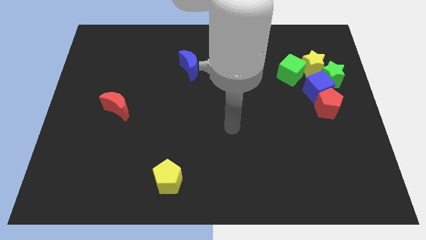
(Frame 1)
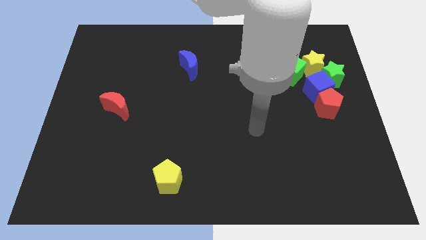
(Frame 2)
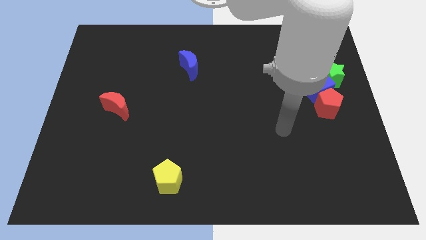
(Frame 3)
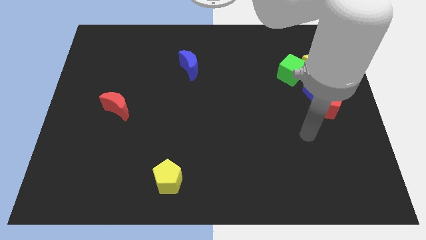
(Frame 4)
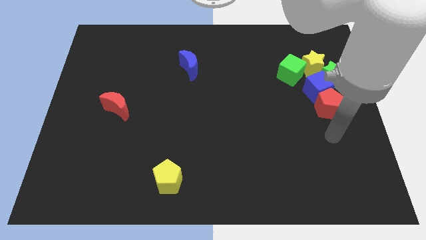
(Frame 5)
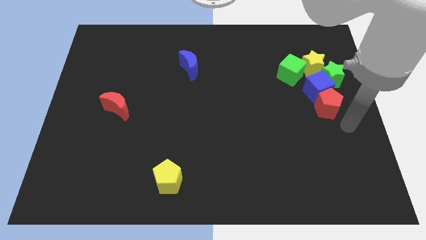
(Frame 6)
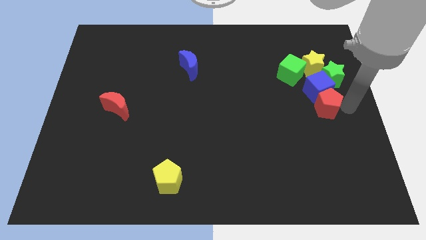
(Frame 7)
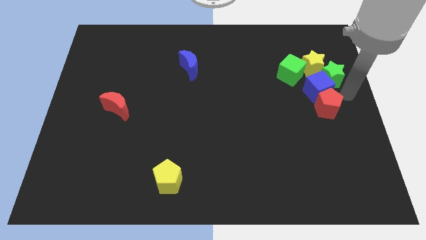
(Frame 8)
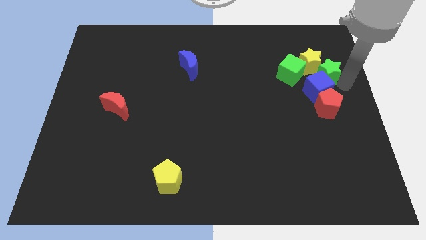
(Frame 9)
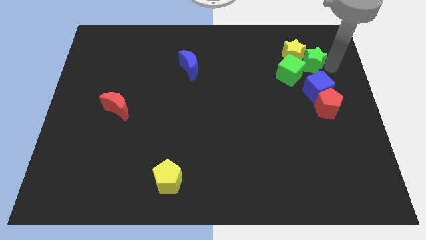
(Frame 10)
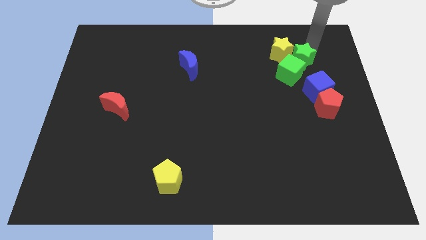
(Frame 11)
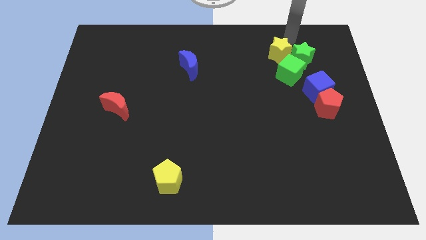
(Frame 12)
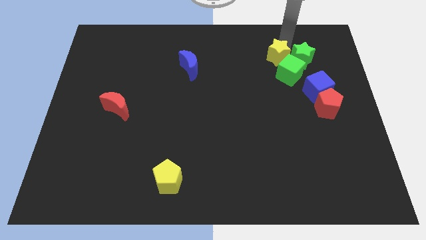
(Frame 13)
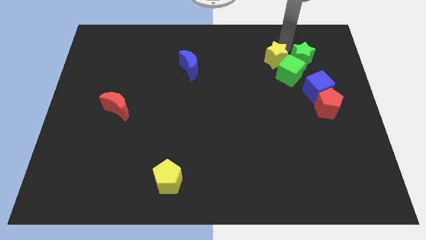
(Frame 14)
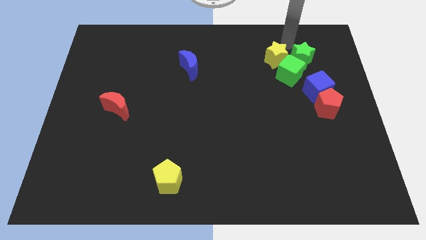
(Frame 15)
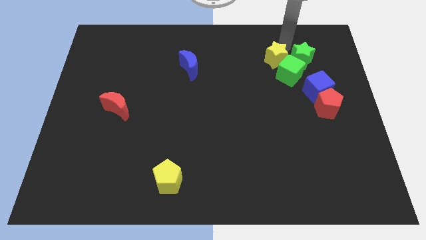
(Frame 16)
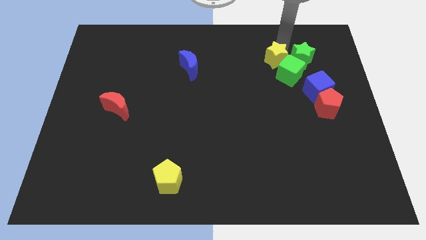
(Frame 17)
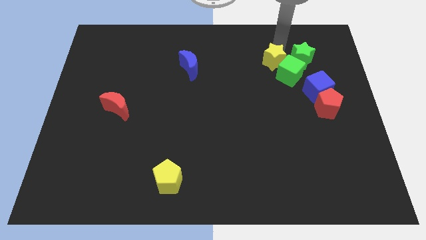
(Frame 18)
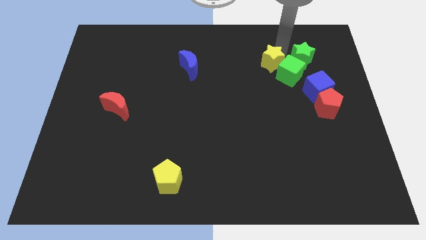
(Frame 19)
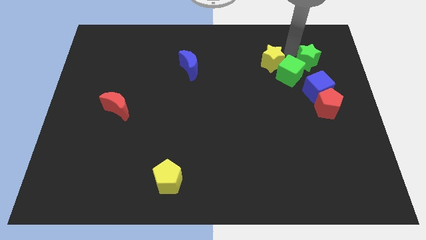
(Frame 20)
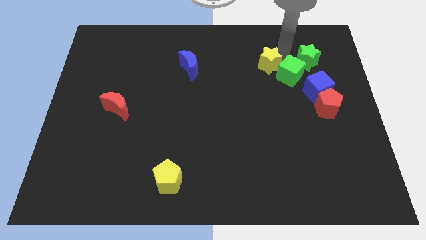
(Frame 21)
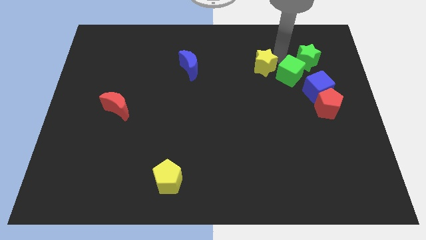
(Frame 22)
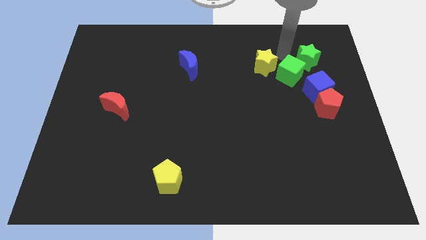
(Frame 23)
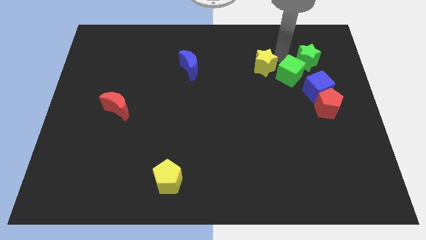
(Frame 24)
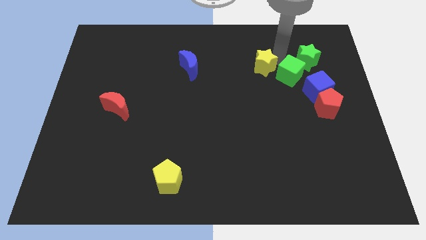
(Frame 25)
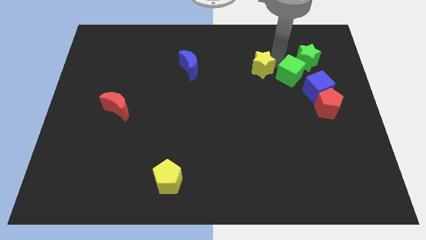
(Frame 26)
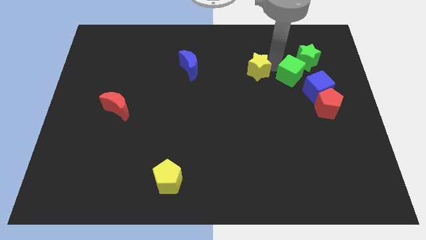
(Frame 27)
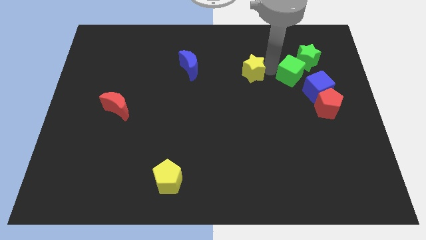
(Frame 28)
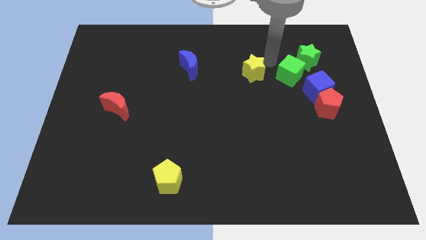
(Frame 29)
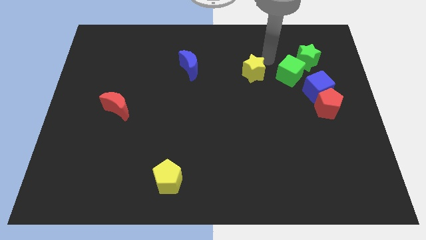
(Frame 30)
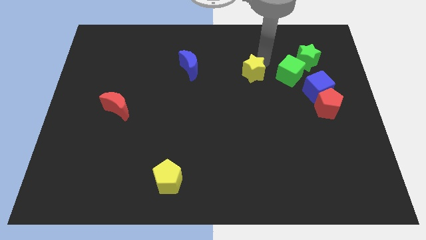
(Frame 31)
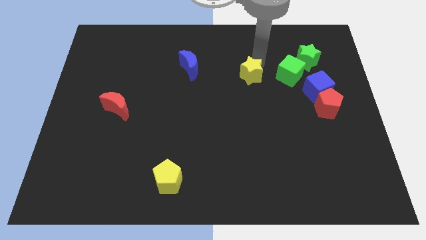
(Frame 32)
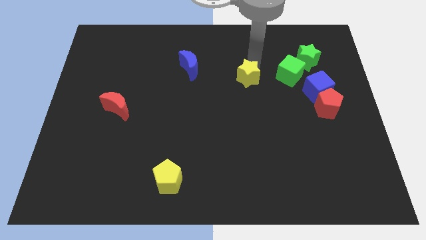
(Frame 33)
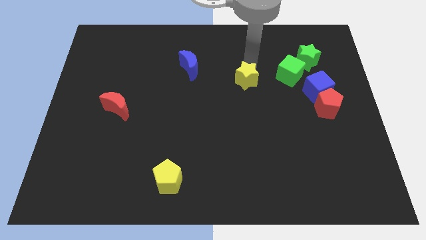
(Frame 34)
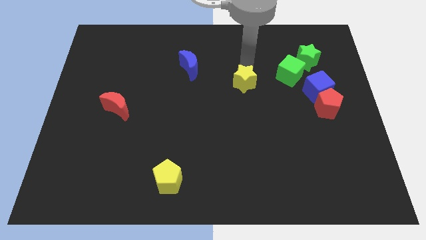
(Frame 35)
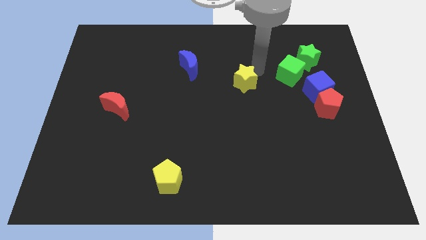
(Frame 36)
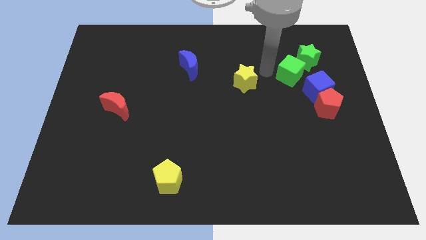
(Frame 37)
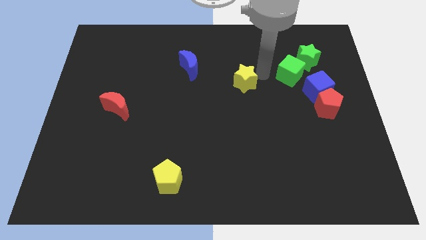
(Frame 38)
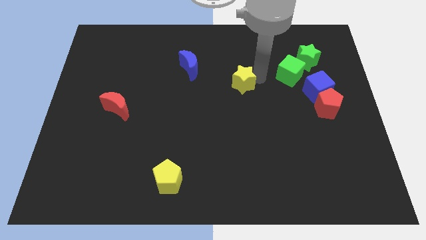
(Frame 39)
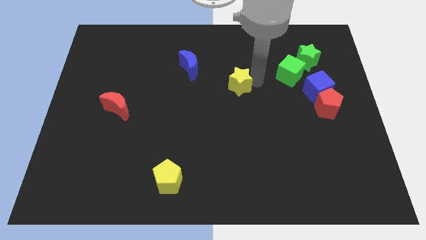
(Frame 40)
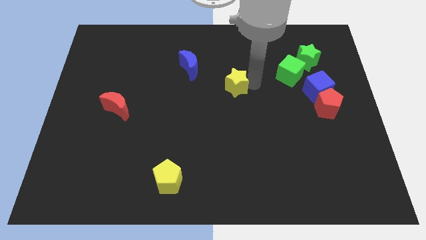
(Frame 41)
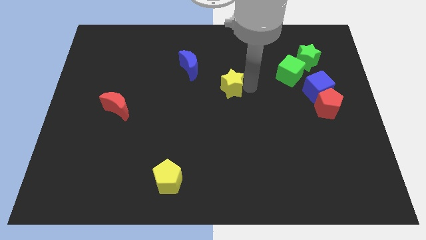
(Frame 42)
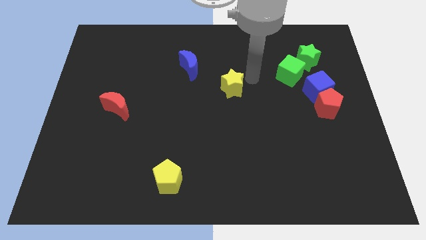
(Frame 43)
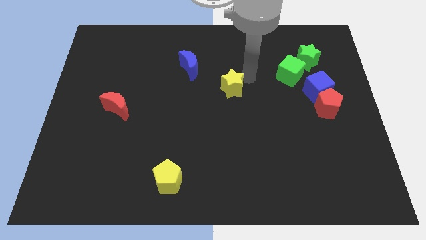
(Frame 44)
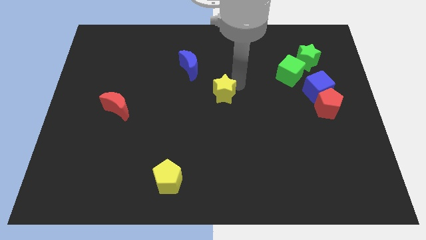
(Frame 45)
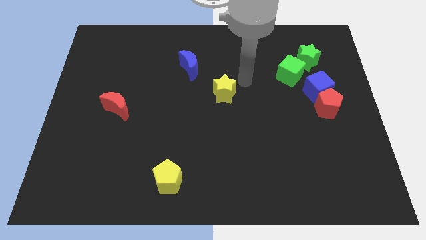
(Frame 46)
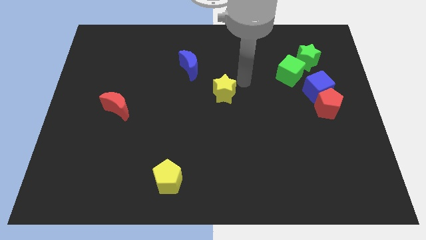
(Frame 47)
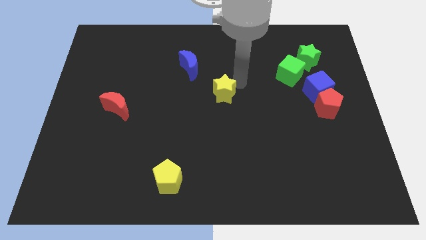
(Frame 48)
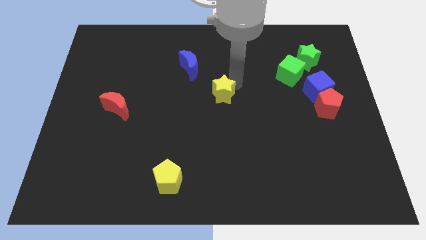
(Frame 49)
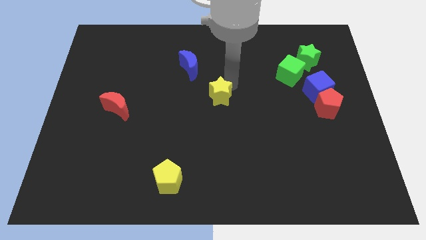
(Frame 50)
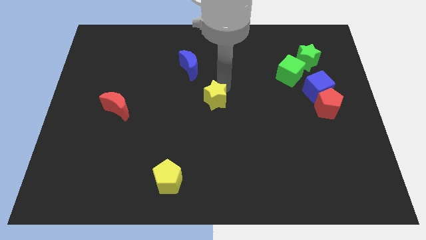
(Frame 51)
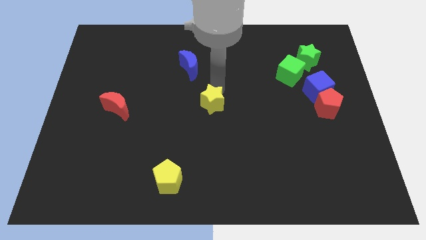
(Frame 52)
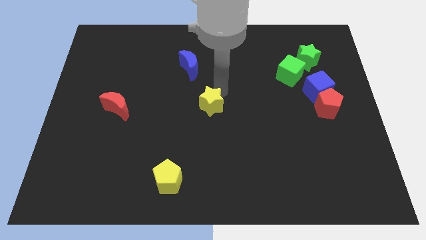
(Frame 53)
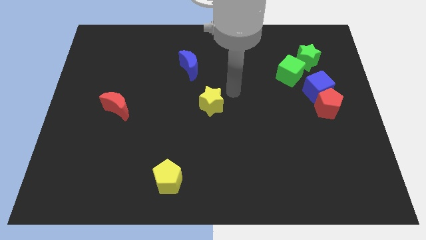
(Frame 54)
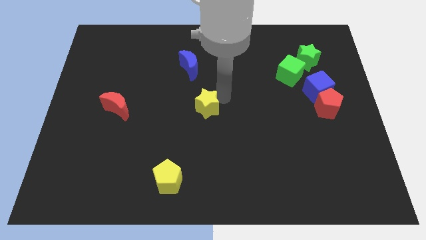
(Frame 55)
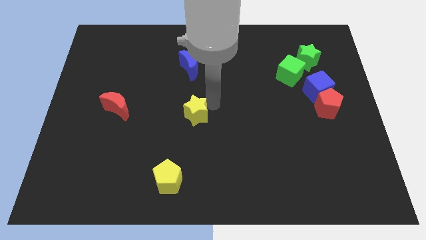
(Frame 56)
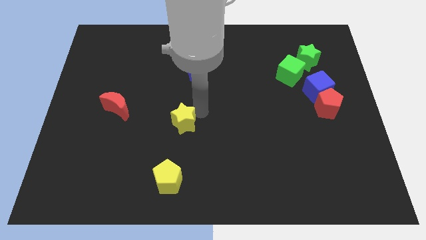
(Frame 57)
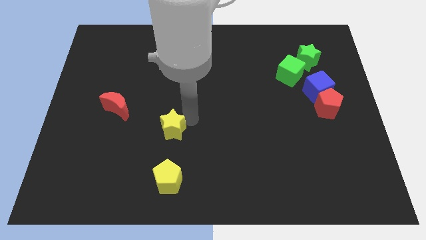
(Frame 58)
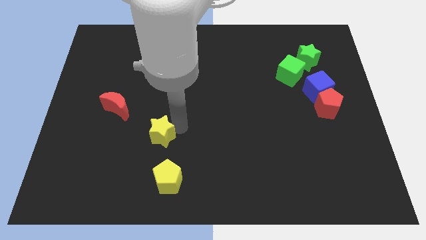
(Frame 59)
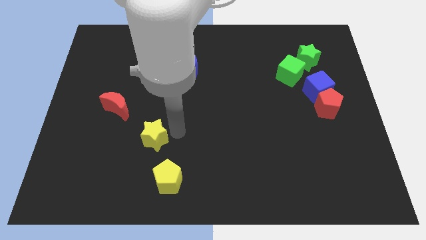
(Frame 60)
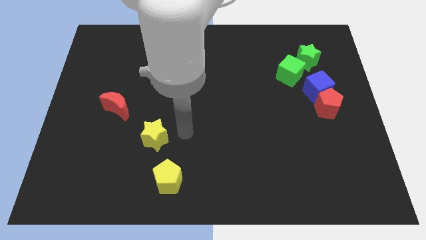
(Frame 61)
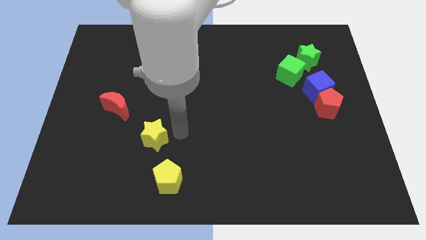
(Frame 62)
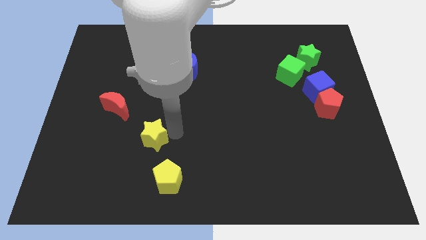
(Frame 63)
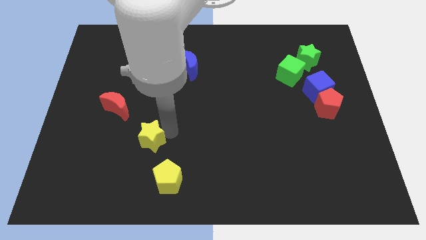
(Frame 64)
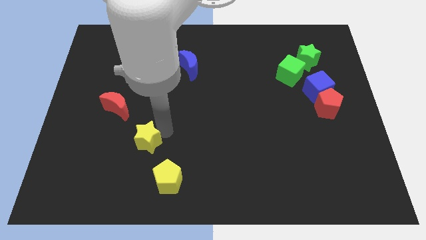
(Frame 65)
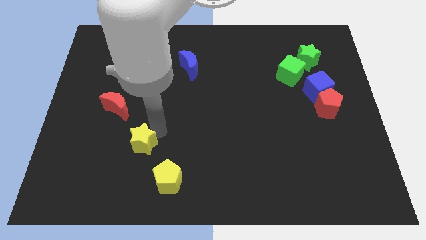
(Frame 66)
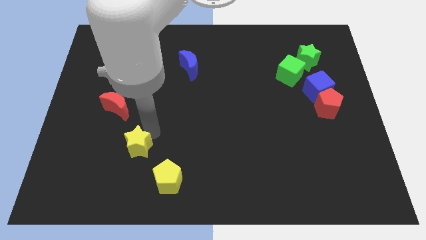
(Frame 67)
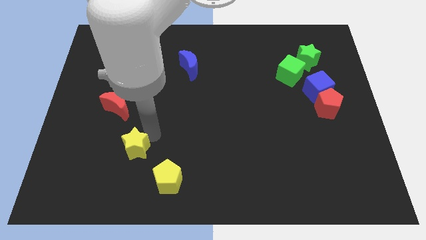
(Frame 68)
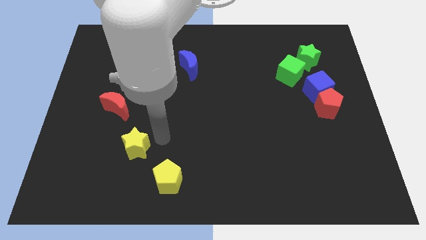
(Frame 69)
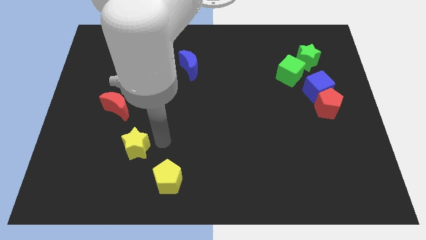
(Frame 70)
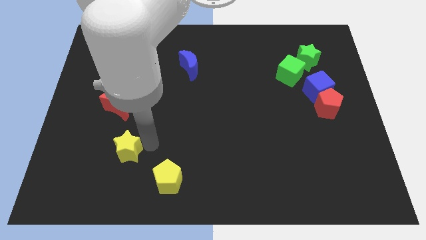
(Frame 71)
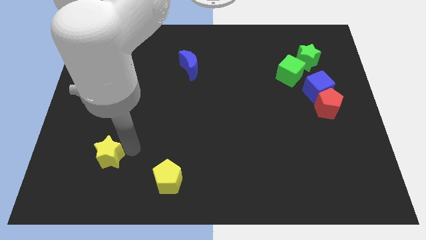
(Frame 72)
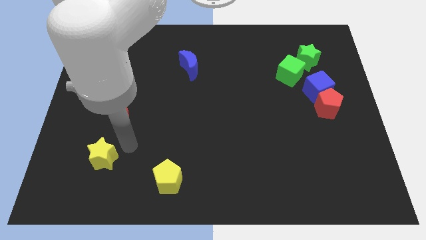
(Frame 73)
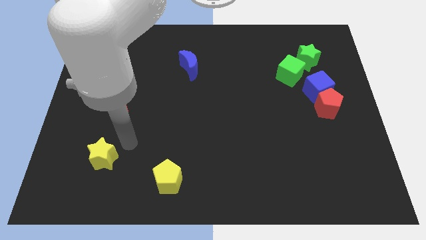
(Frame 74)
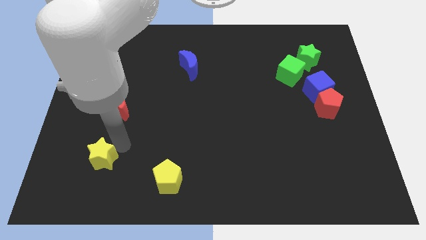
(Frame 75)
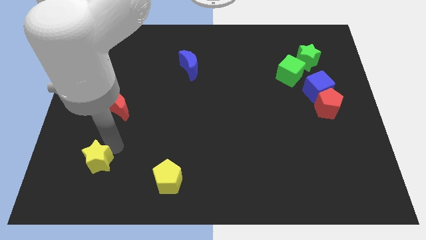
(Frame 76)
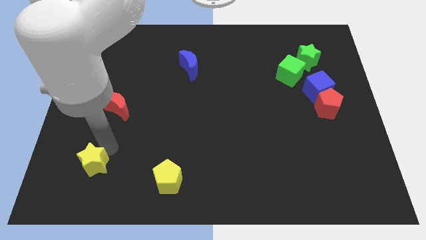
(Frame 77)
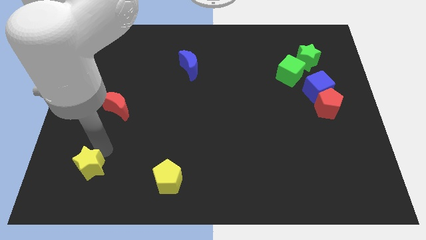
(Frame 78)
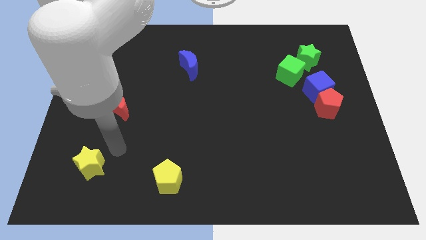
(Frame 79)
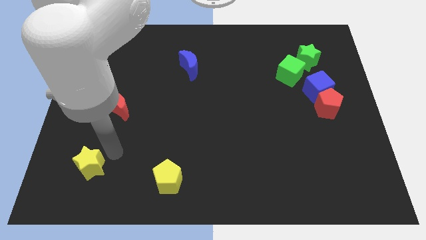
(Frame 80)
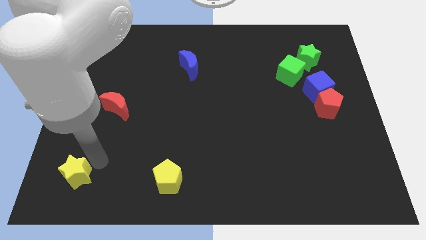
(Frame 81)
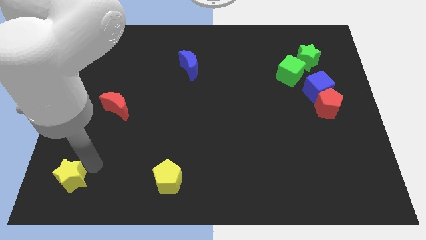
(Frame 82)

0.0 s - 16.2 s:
move the yellow star to the lower left corner
